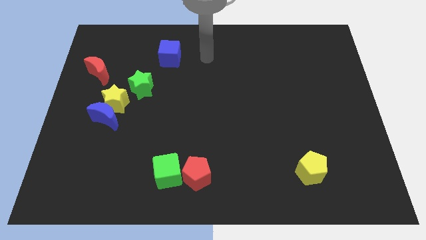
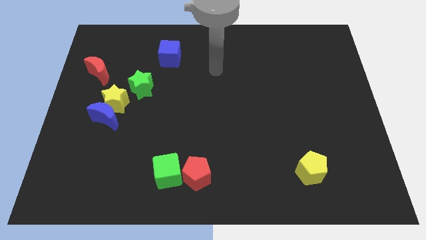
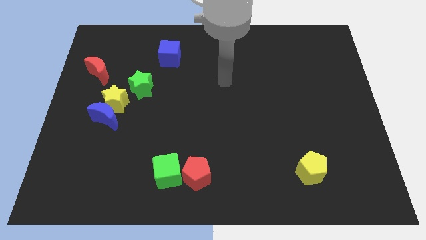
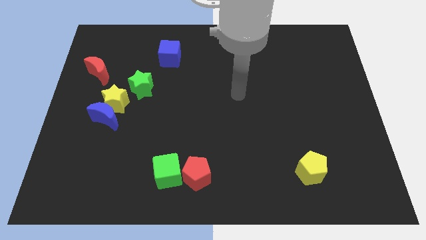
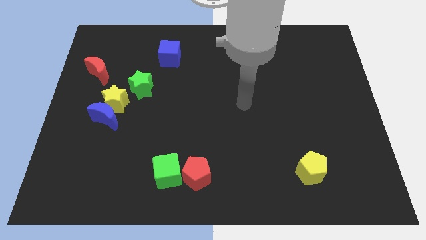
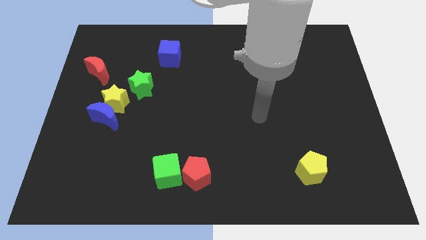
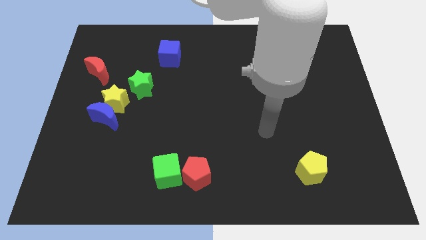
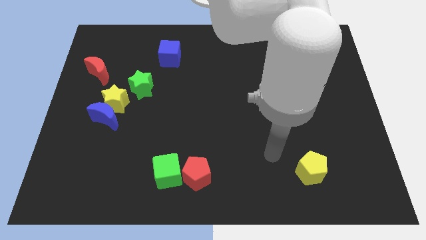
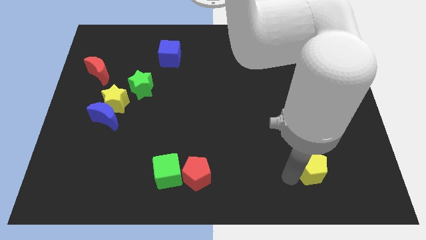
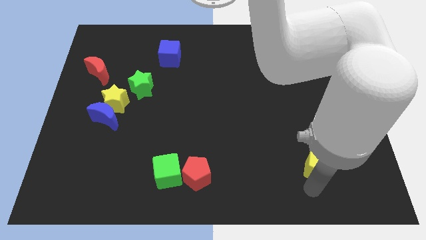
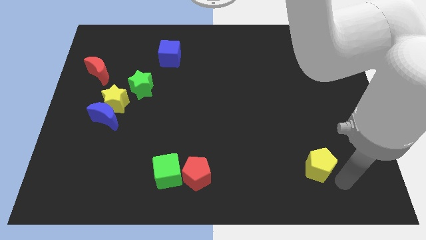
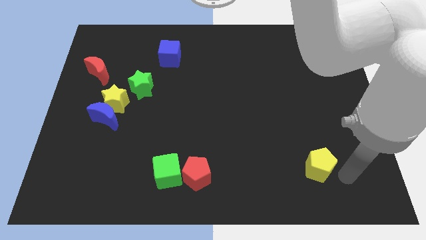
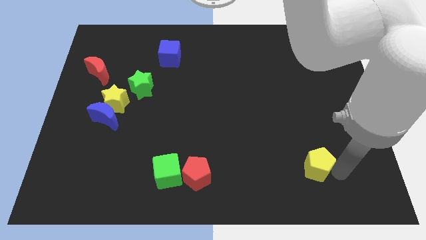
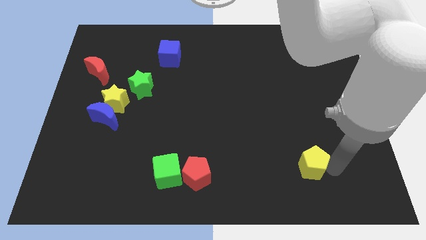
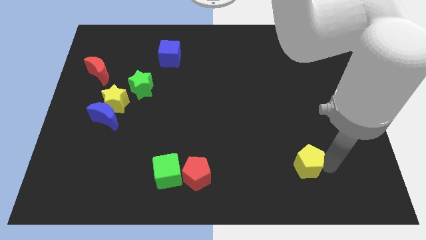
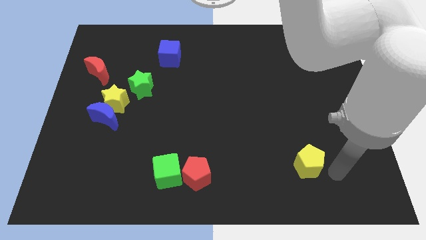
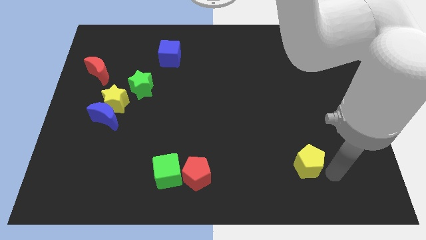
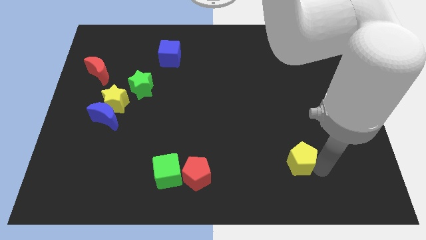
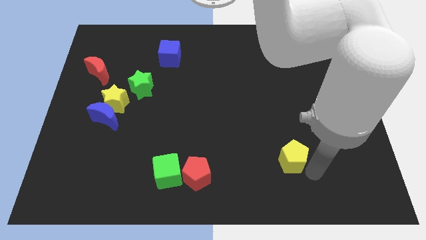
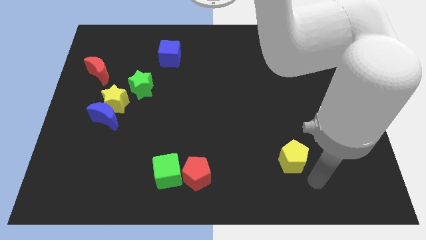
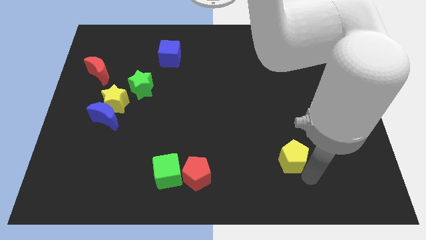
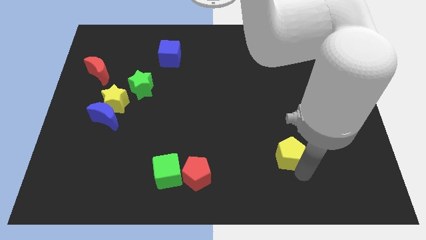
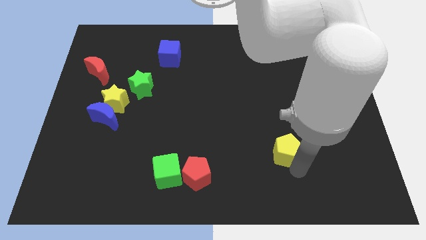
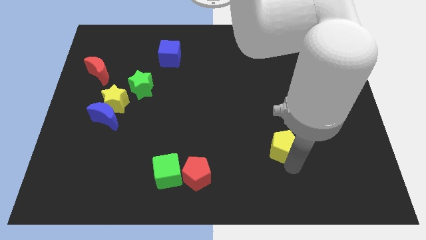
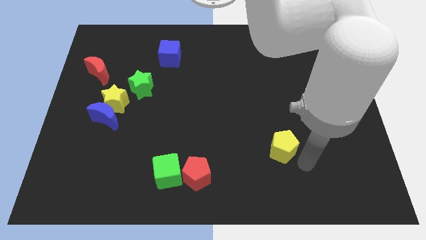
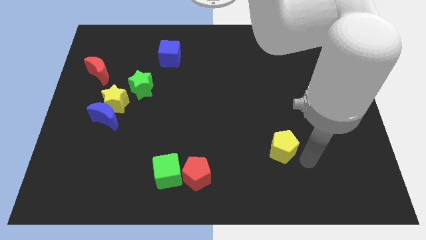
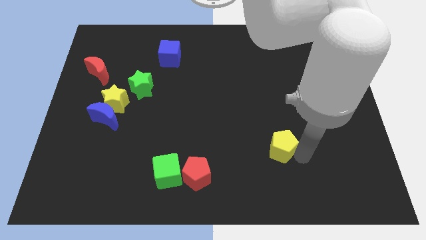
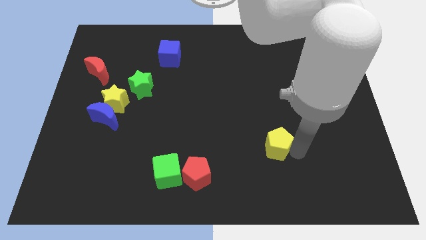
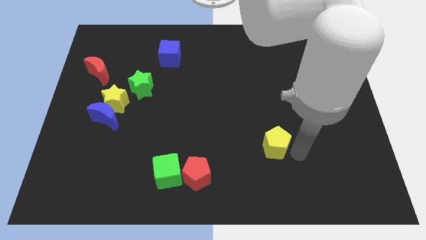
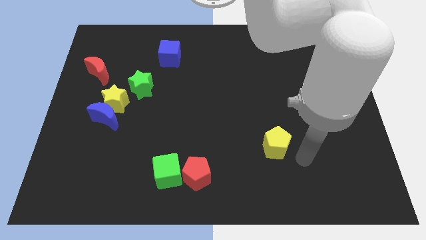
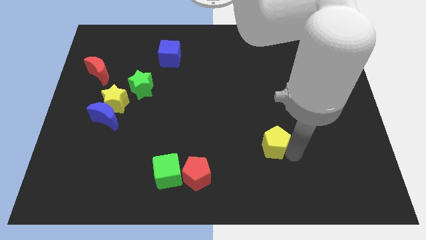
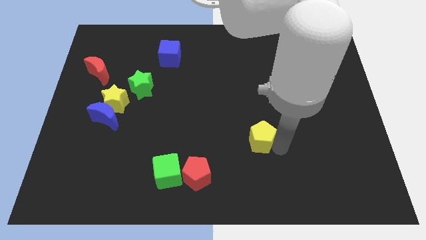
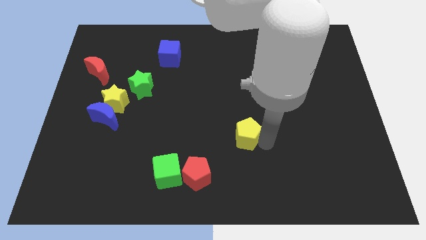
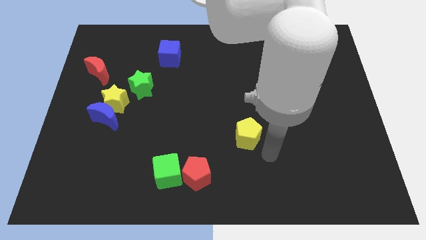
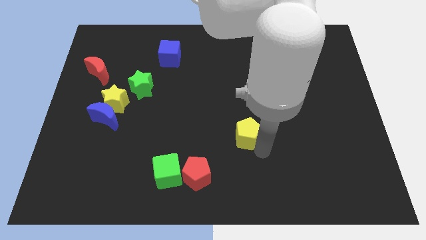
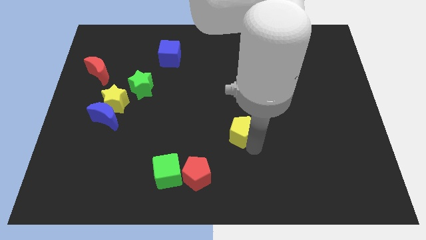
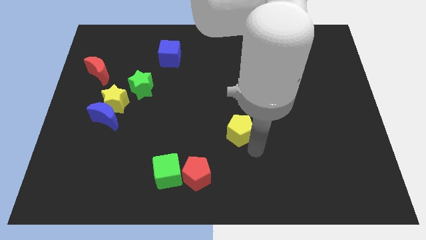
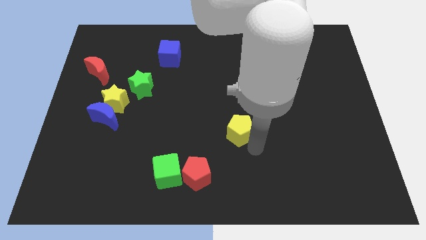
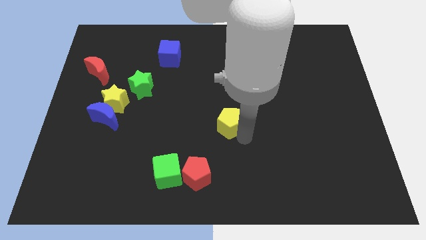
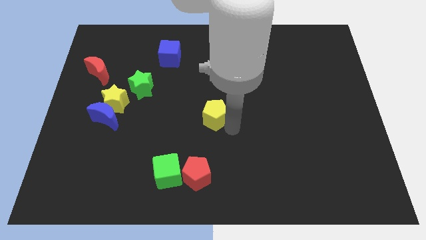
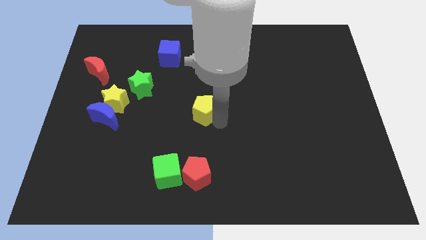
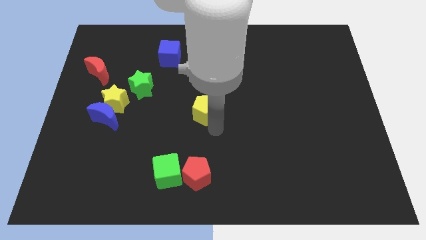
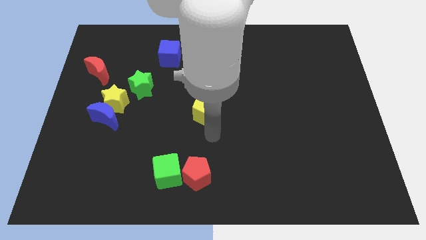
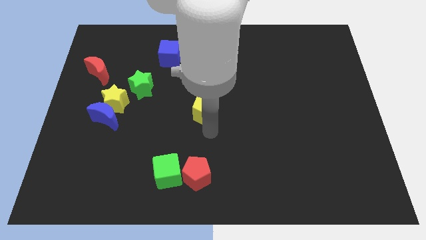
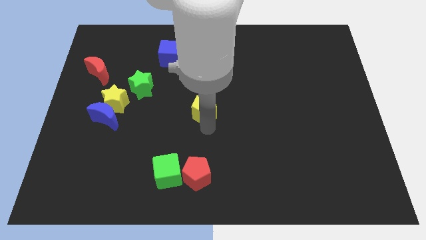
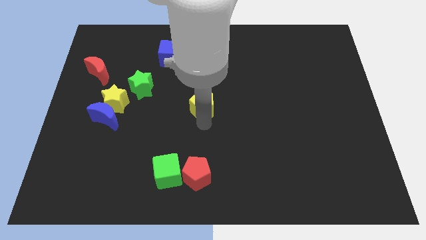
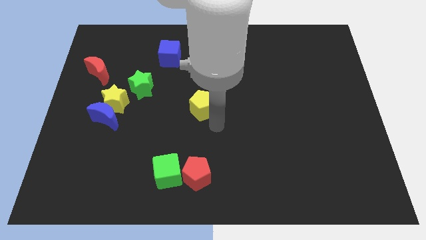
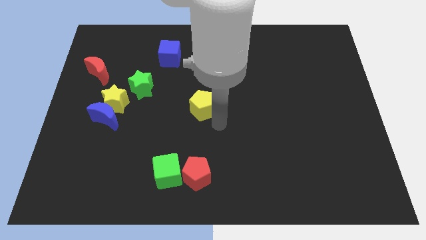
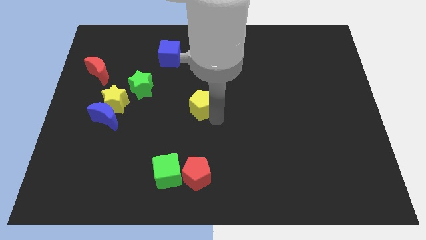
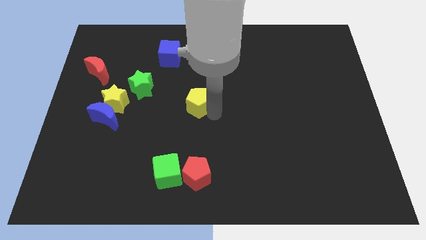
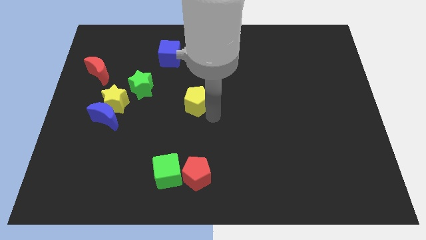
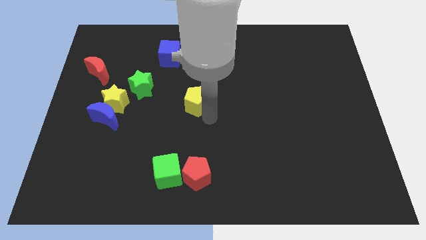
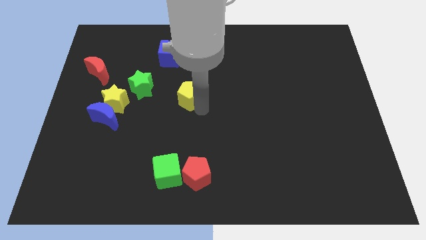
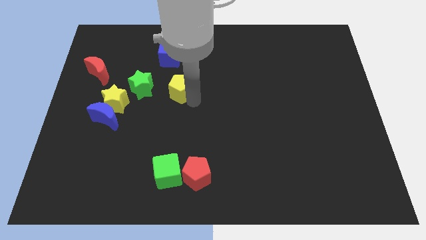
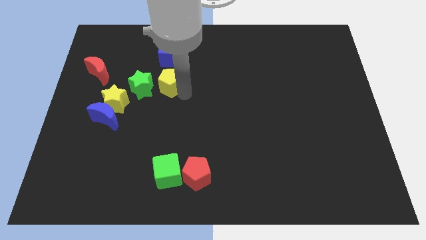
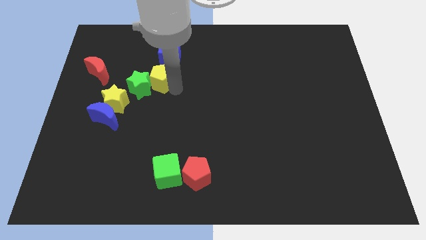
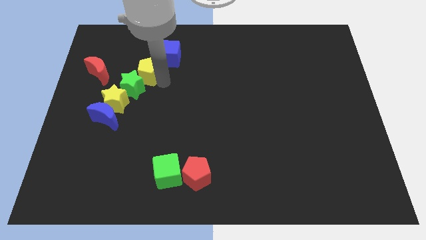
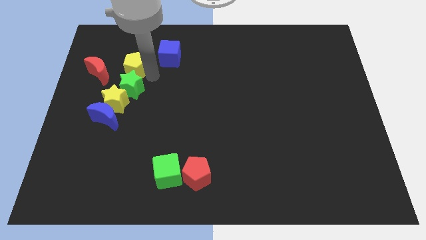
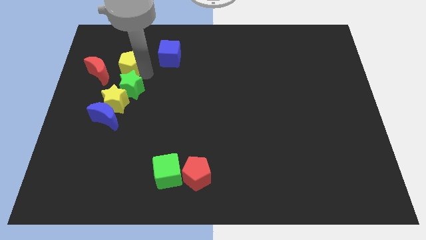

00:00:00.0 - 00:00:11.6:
push the yellow pentagon to the top right side of the red moon
